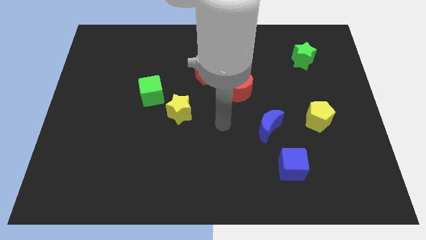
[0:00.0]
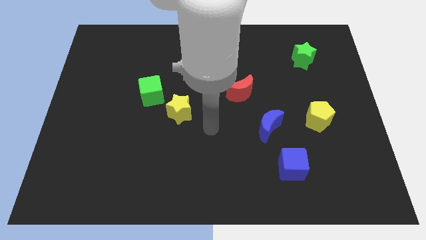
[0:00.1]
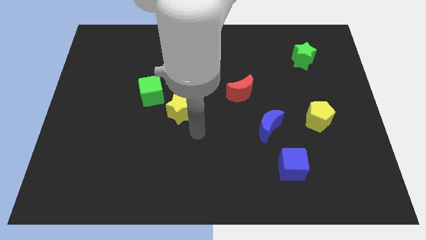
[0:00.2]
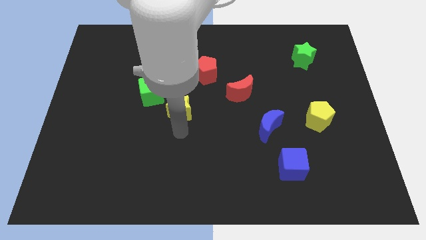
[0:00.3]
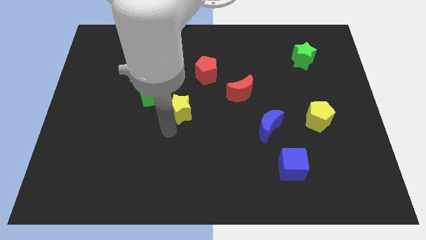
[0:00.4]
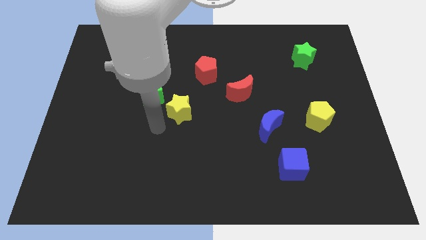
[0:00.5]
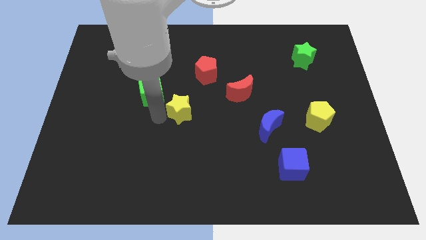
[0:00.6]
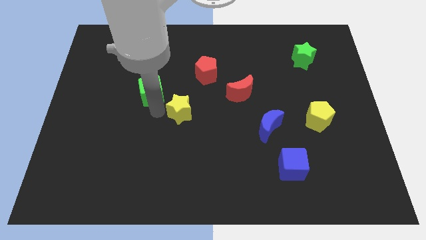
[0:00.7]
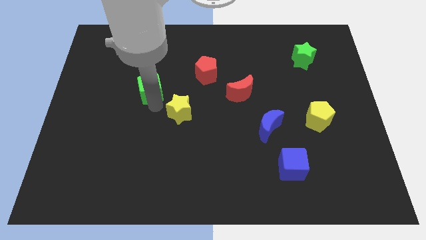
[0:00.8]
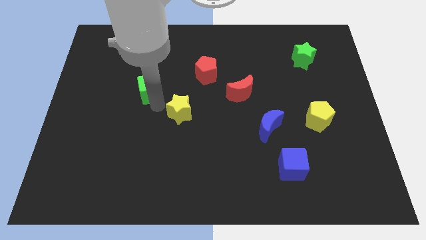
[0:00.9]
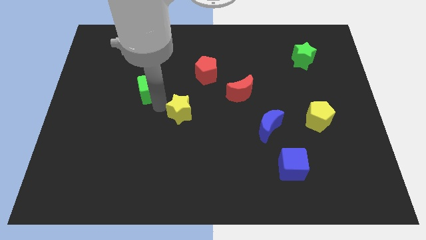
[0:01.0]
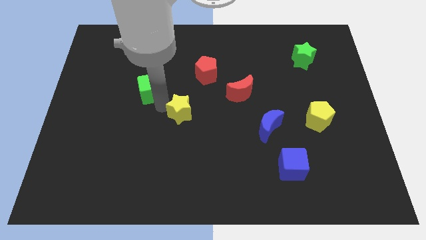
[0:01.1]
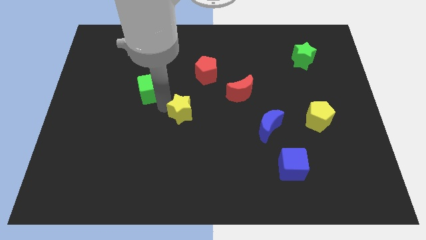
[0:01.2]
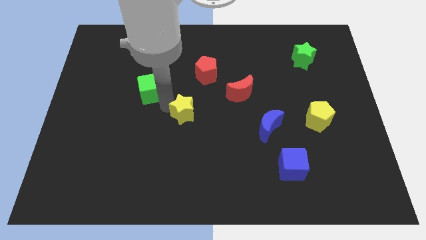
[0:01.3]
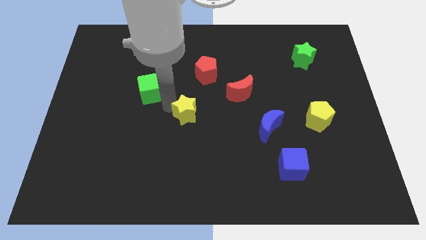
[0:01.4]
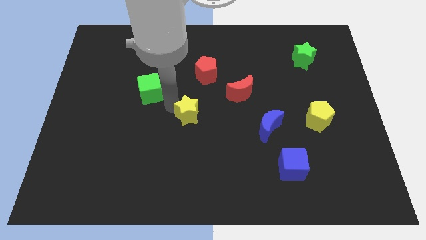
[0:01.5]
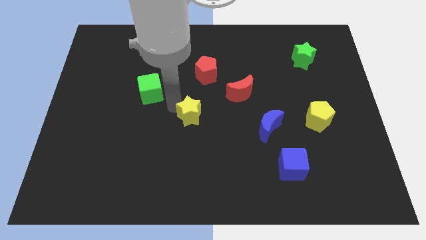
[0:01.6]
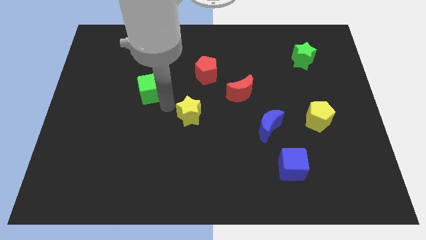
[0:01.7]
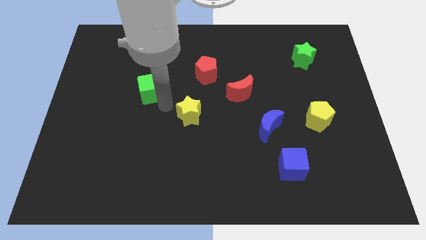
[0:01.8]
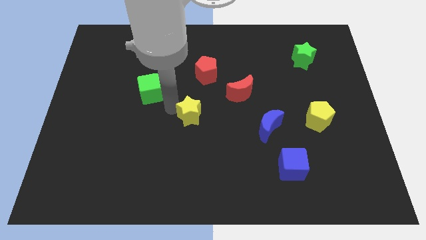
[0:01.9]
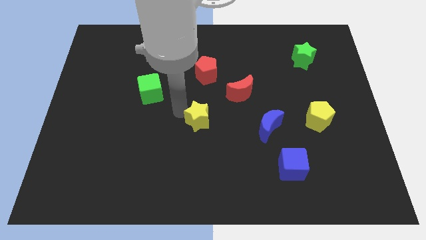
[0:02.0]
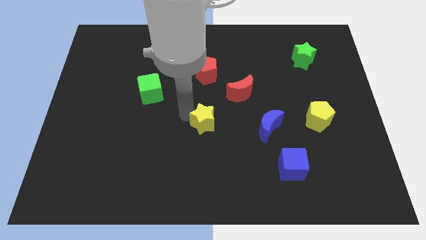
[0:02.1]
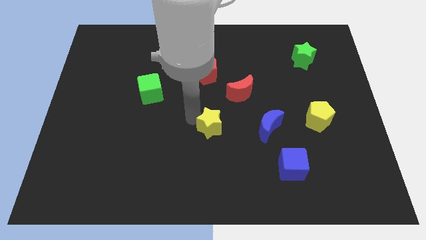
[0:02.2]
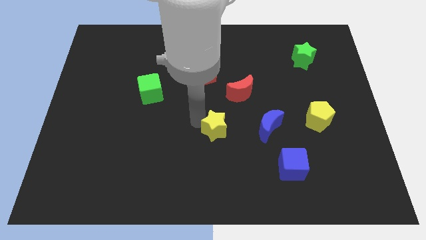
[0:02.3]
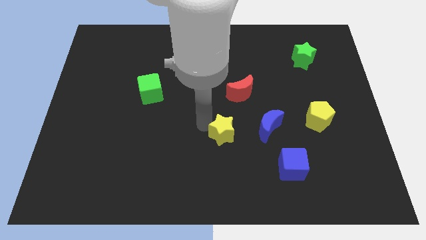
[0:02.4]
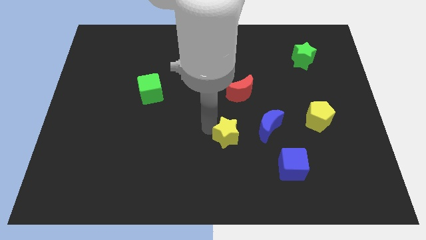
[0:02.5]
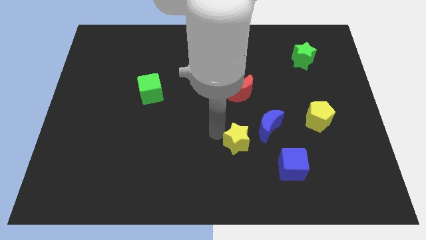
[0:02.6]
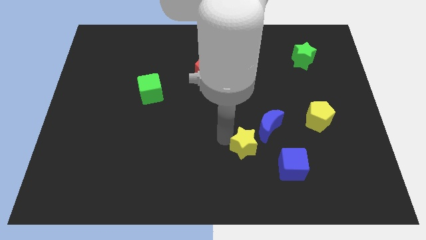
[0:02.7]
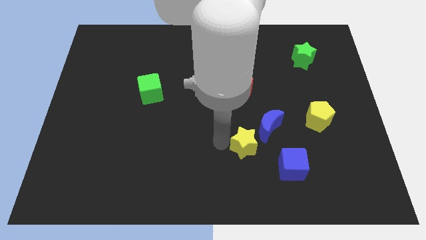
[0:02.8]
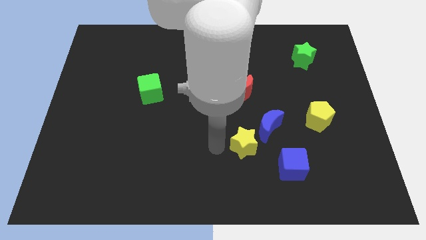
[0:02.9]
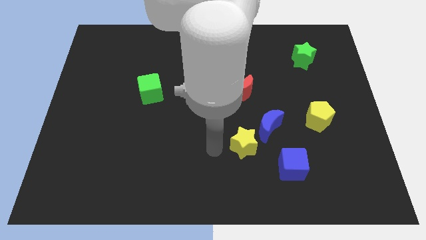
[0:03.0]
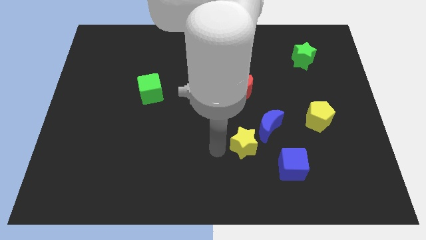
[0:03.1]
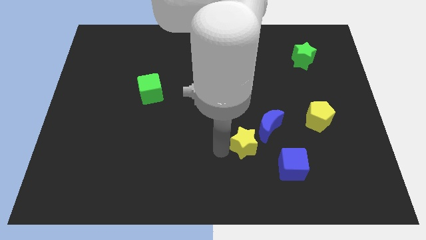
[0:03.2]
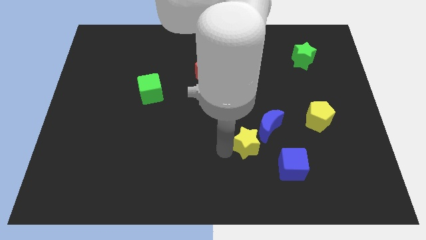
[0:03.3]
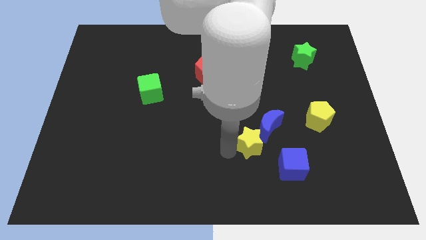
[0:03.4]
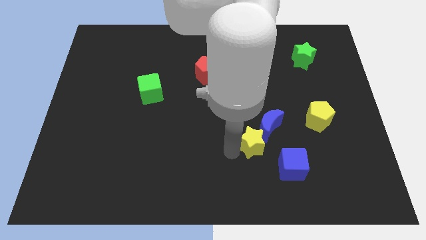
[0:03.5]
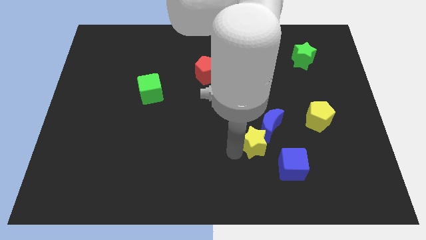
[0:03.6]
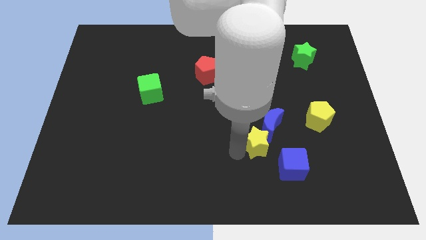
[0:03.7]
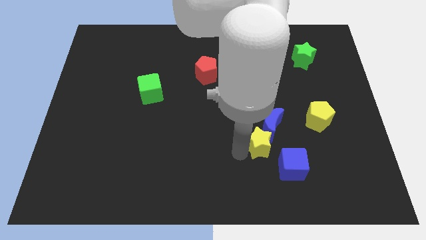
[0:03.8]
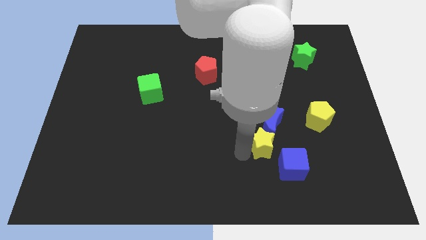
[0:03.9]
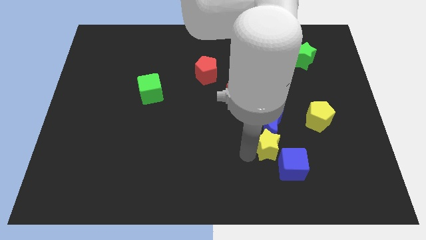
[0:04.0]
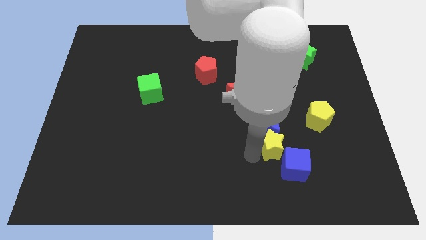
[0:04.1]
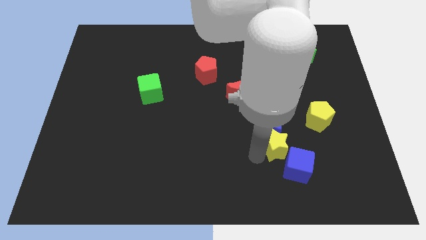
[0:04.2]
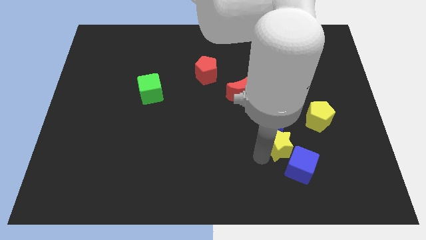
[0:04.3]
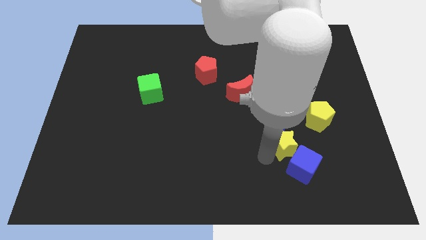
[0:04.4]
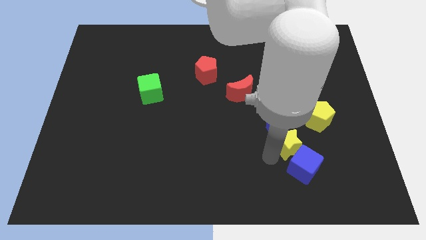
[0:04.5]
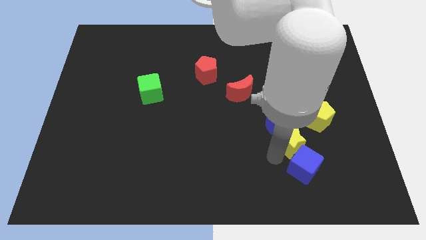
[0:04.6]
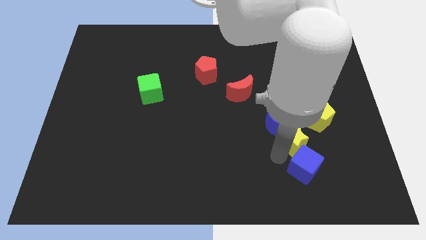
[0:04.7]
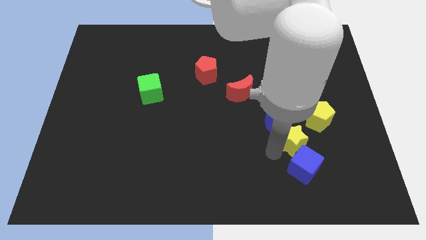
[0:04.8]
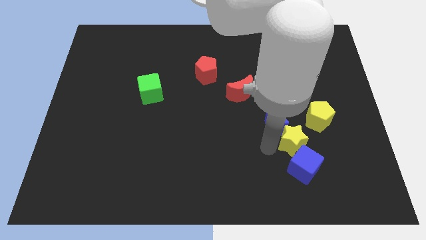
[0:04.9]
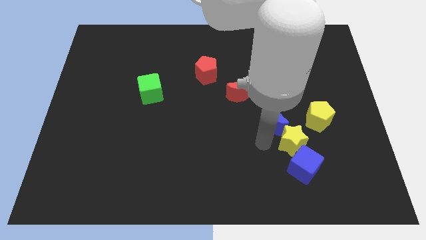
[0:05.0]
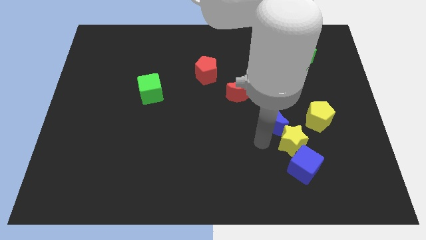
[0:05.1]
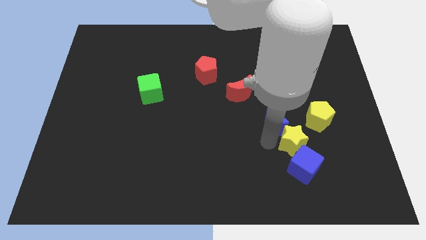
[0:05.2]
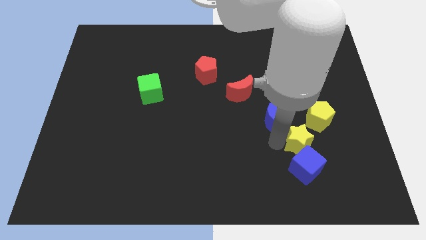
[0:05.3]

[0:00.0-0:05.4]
slide the yellow star to the top right of the blue cube

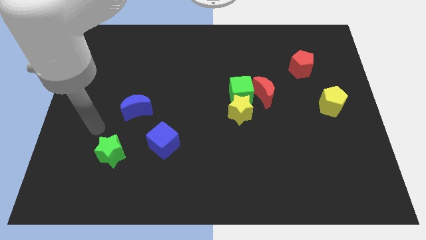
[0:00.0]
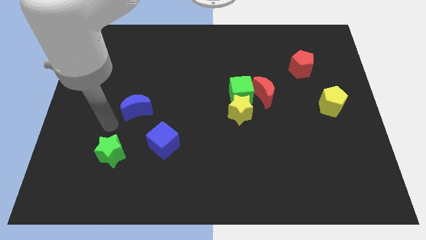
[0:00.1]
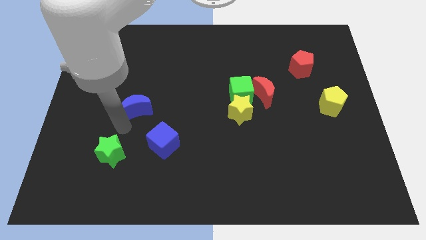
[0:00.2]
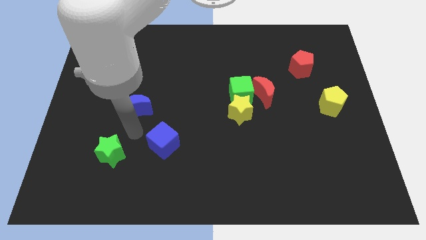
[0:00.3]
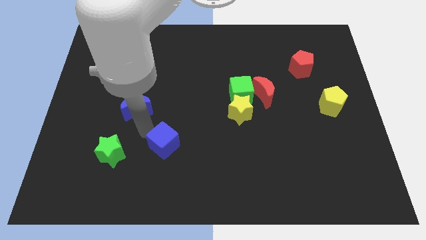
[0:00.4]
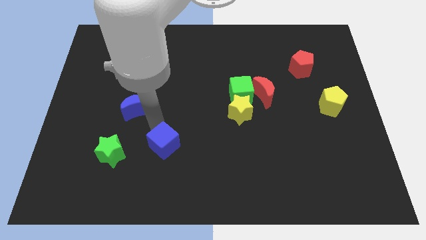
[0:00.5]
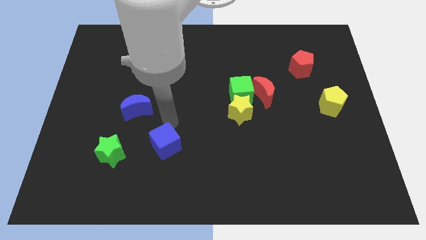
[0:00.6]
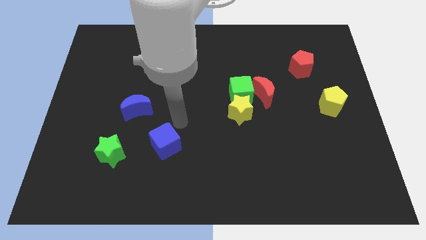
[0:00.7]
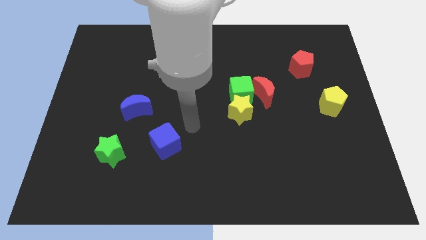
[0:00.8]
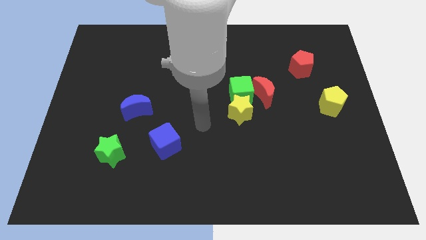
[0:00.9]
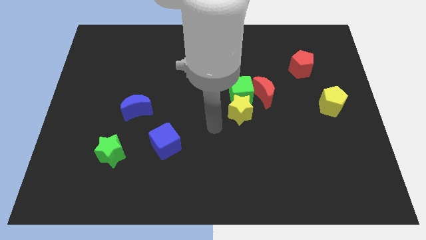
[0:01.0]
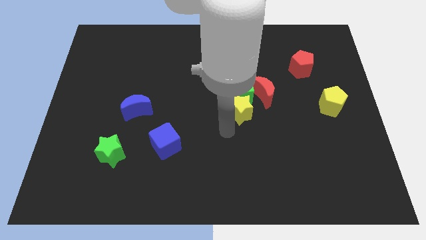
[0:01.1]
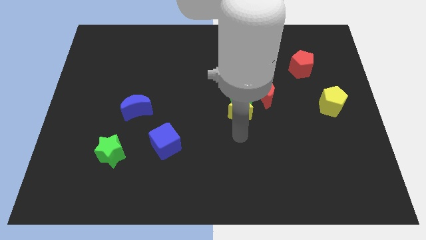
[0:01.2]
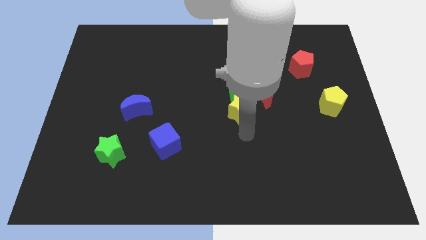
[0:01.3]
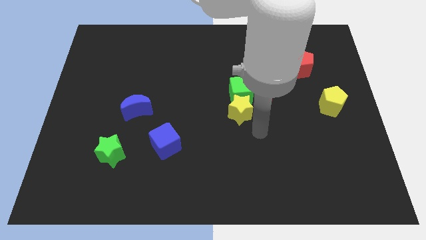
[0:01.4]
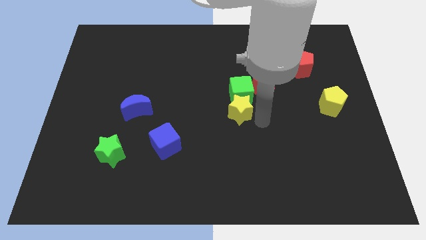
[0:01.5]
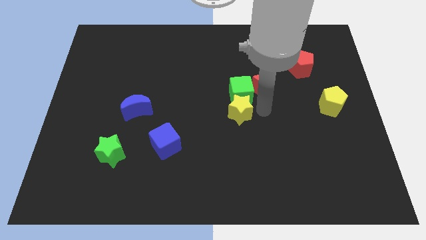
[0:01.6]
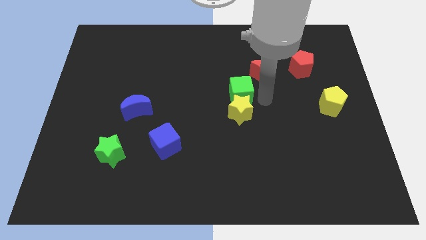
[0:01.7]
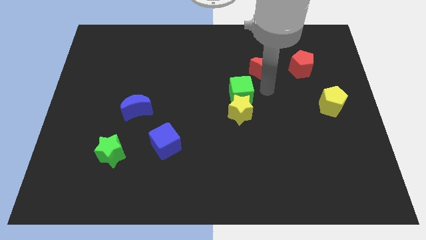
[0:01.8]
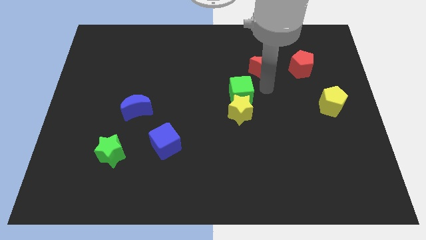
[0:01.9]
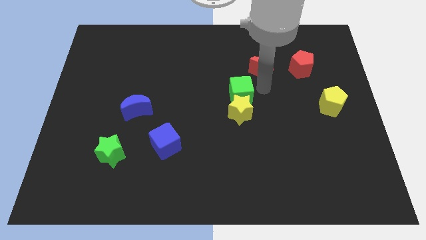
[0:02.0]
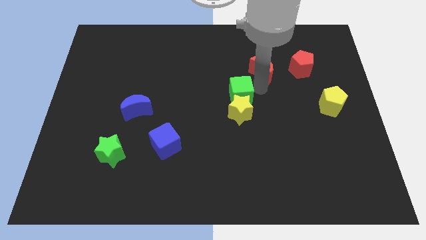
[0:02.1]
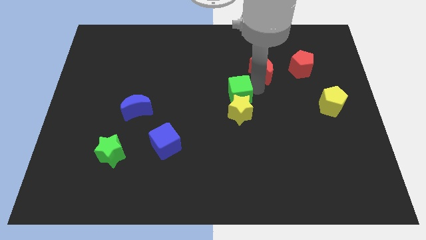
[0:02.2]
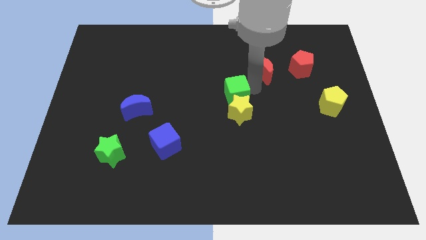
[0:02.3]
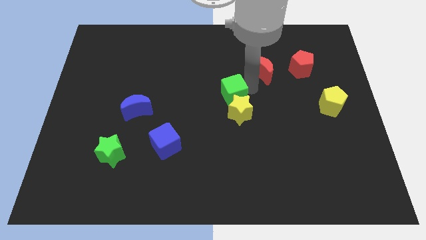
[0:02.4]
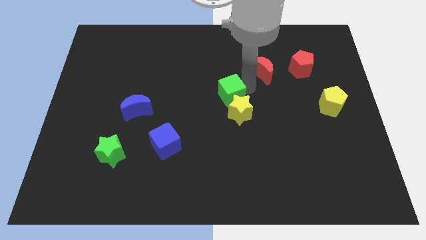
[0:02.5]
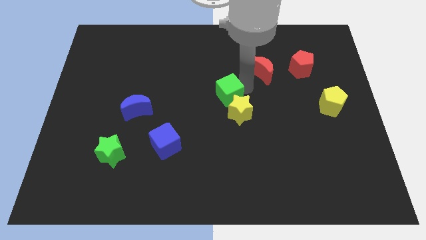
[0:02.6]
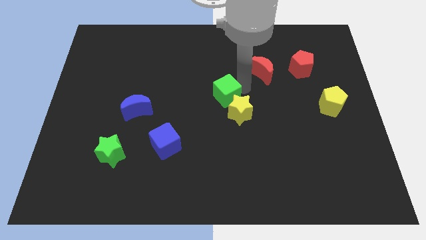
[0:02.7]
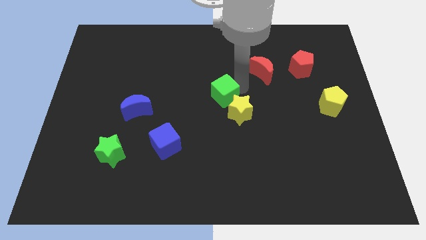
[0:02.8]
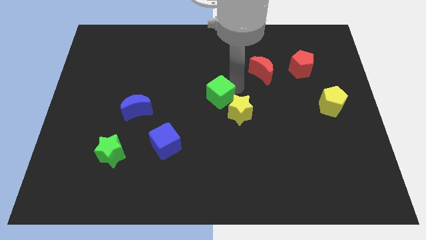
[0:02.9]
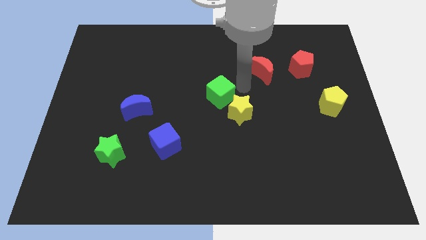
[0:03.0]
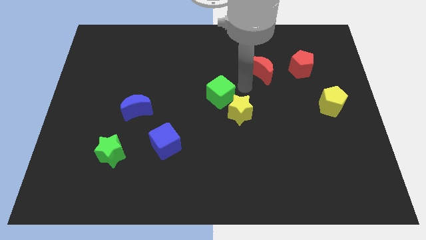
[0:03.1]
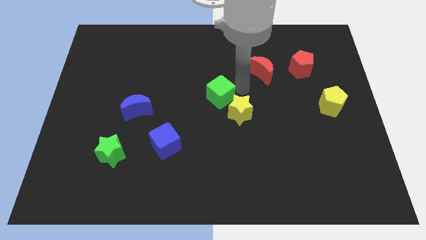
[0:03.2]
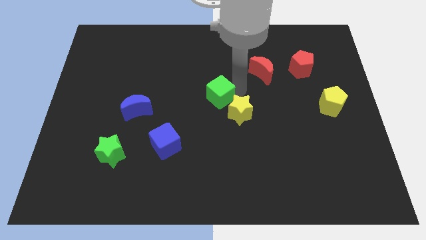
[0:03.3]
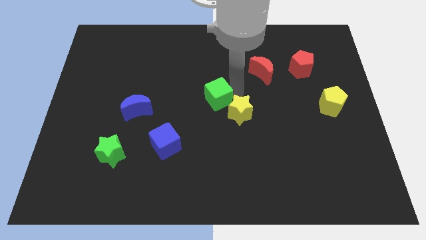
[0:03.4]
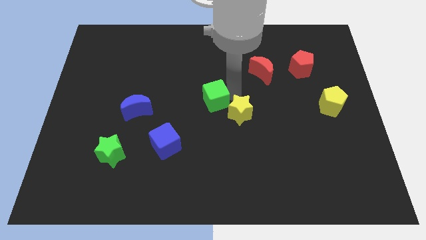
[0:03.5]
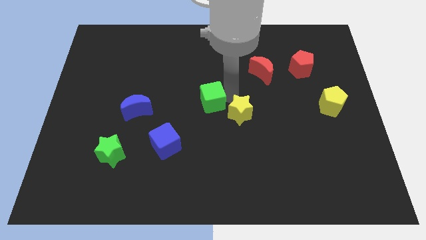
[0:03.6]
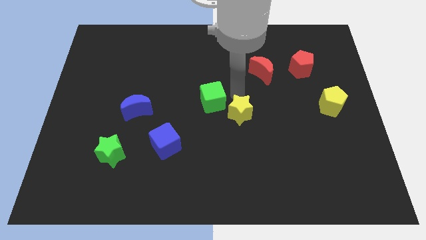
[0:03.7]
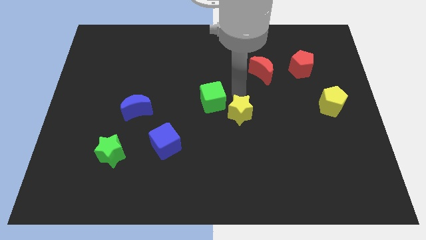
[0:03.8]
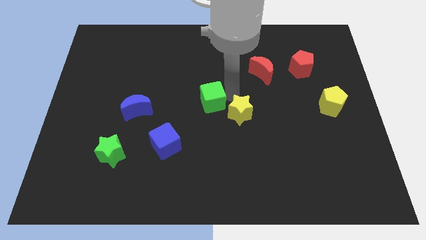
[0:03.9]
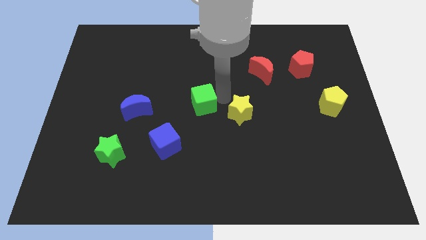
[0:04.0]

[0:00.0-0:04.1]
move the green cube to the right of the blue moon
